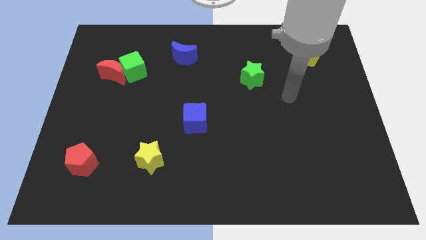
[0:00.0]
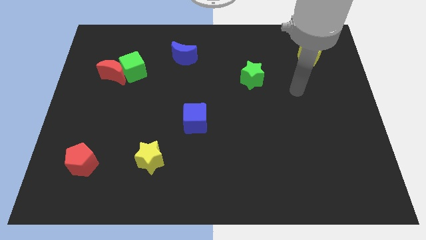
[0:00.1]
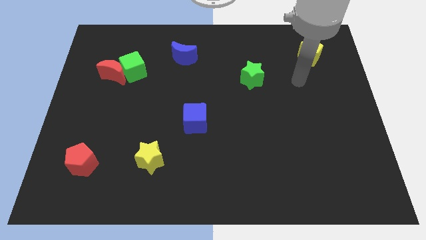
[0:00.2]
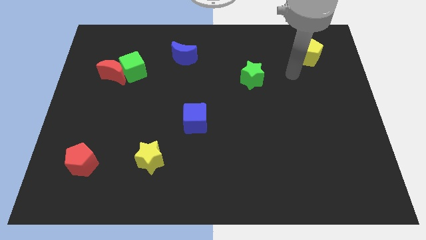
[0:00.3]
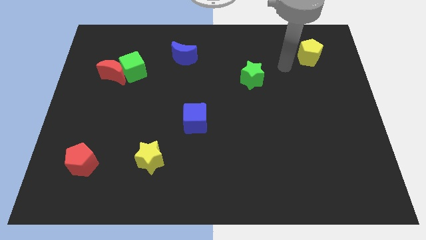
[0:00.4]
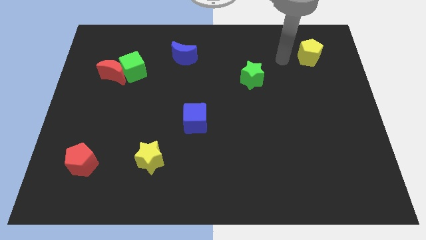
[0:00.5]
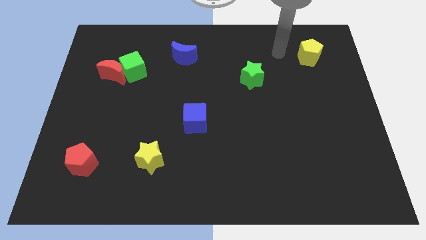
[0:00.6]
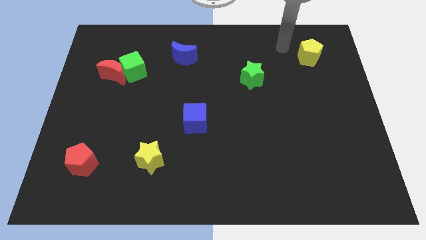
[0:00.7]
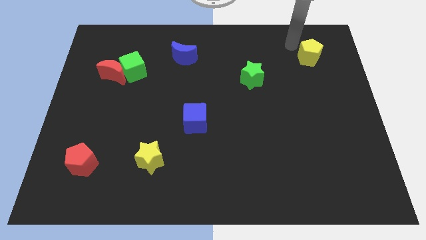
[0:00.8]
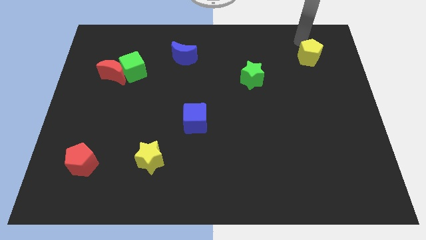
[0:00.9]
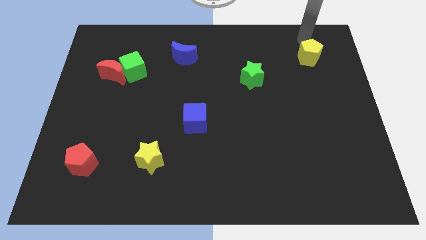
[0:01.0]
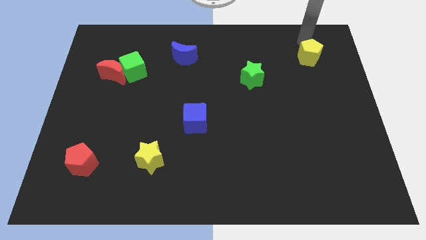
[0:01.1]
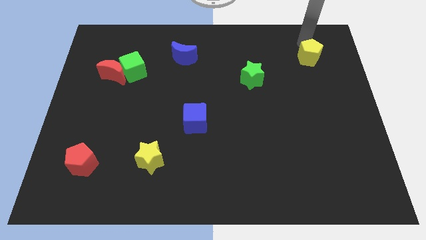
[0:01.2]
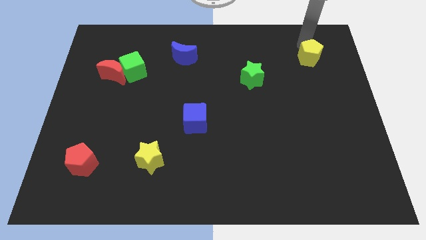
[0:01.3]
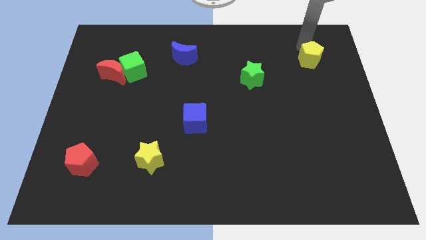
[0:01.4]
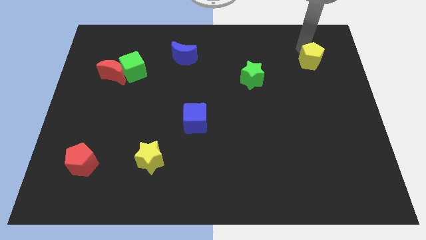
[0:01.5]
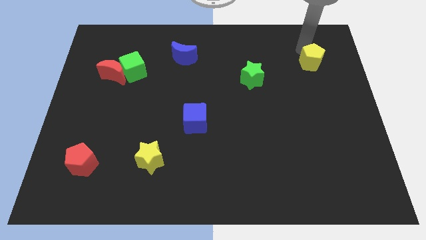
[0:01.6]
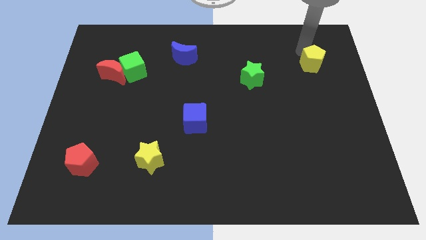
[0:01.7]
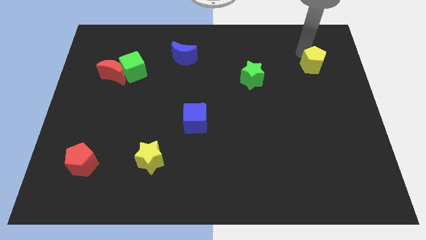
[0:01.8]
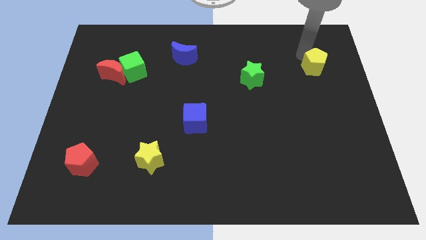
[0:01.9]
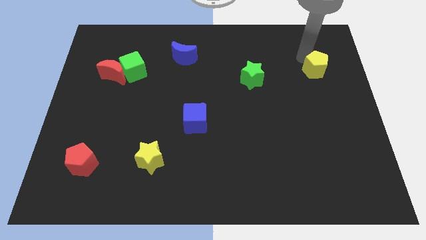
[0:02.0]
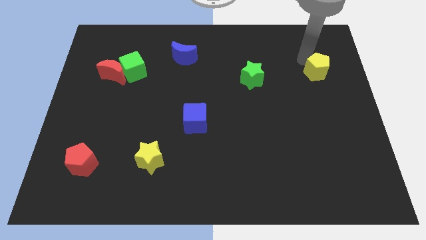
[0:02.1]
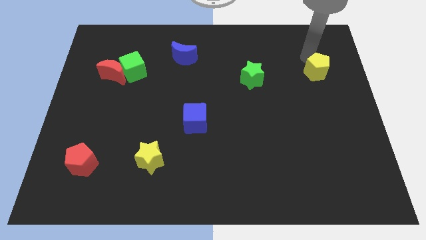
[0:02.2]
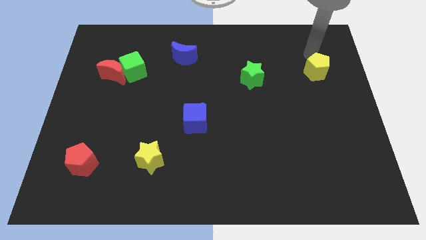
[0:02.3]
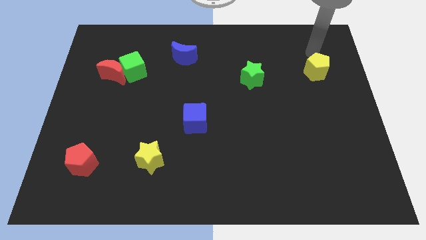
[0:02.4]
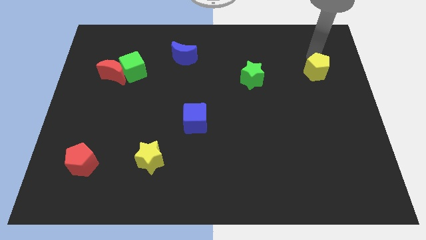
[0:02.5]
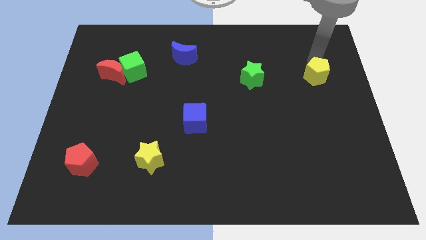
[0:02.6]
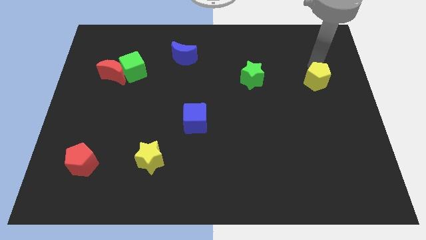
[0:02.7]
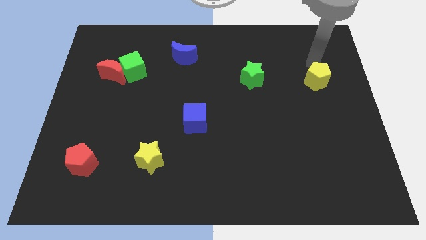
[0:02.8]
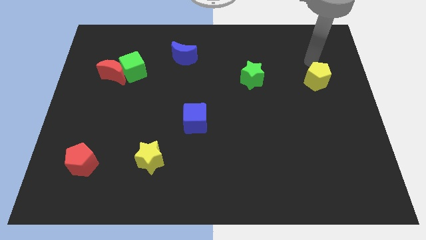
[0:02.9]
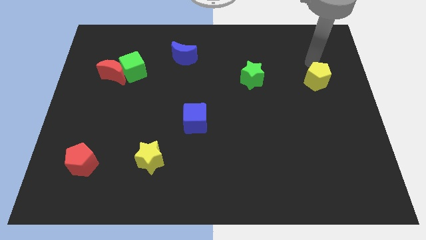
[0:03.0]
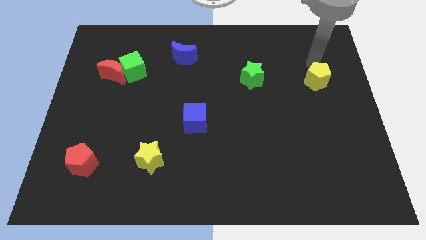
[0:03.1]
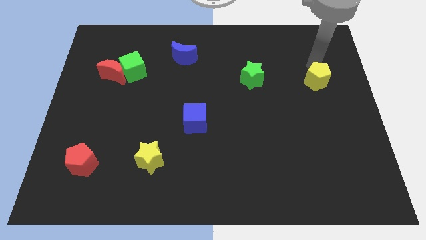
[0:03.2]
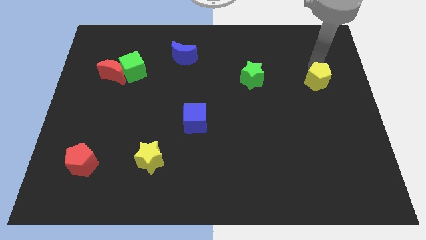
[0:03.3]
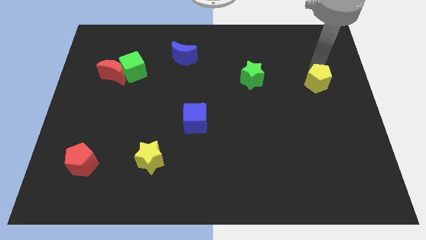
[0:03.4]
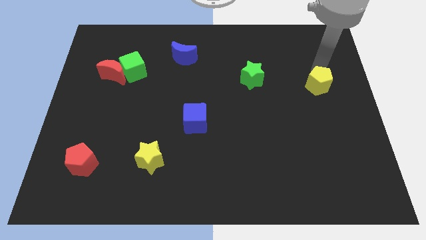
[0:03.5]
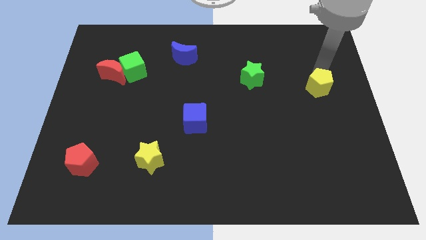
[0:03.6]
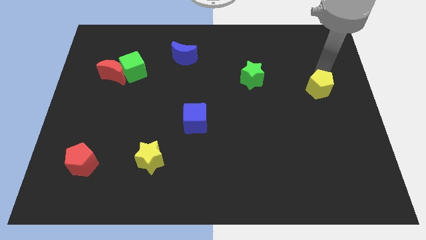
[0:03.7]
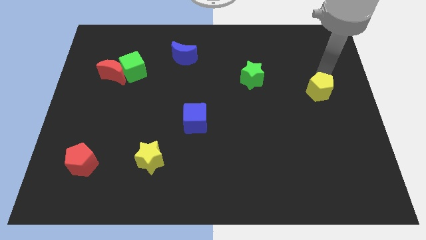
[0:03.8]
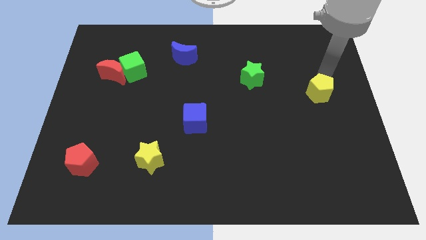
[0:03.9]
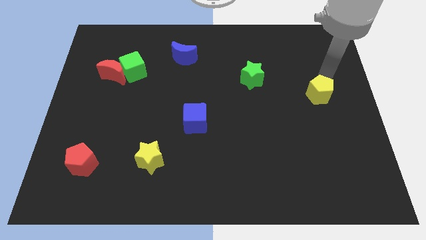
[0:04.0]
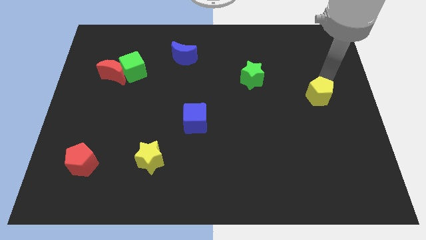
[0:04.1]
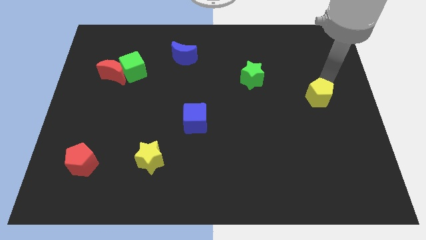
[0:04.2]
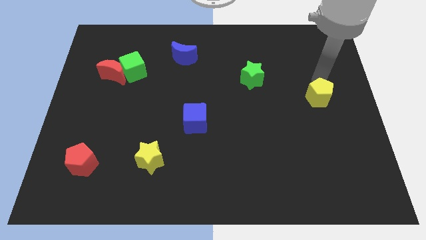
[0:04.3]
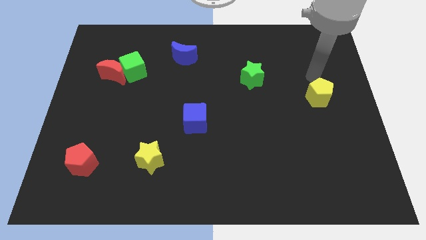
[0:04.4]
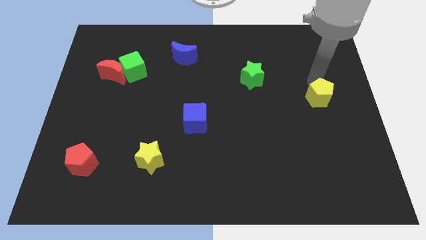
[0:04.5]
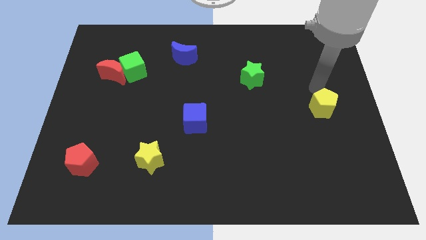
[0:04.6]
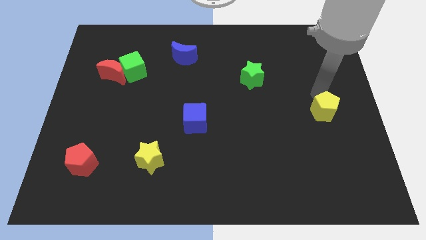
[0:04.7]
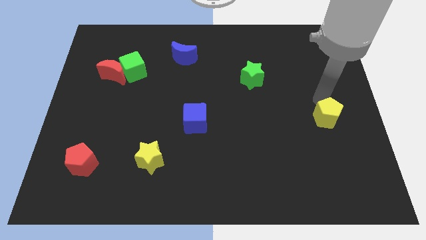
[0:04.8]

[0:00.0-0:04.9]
slide the yellow pentagon downwards

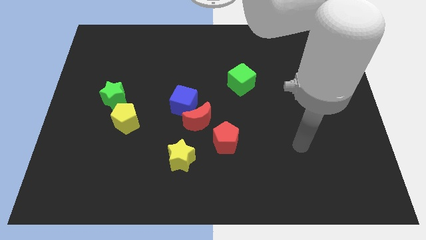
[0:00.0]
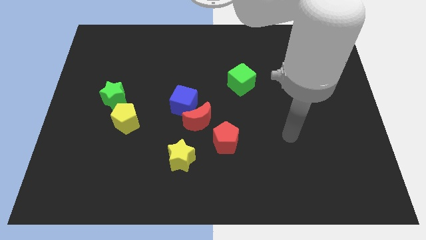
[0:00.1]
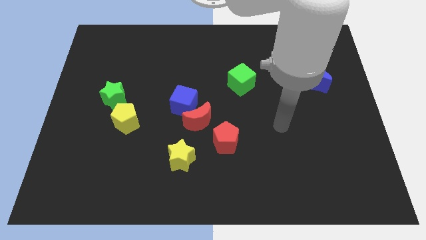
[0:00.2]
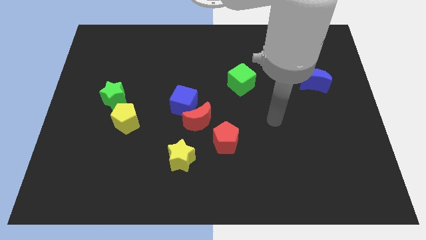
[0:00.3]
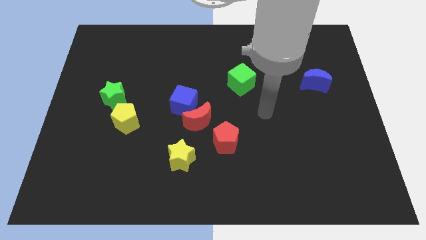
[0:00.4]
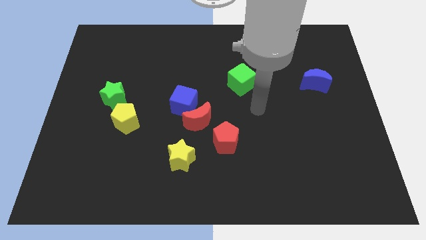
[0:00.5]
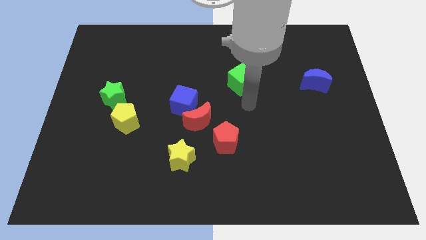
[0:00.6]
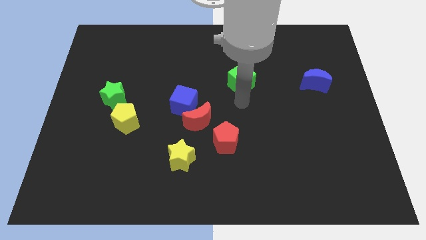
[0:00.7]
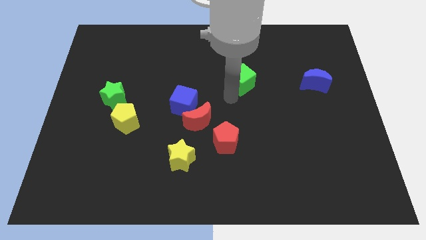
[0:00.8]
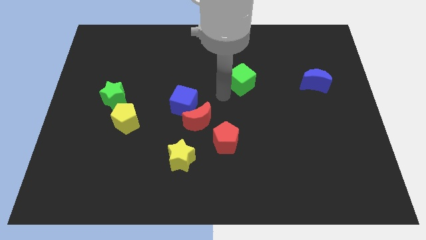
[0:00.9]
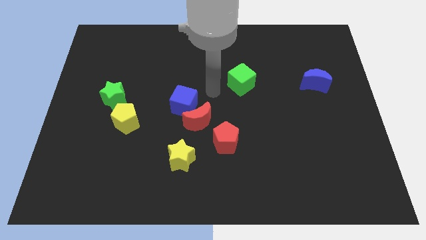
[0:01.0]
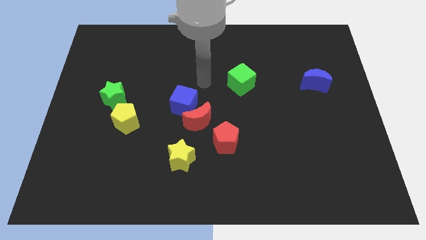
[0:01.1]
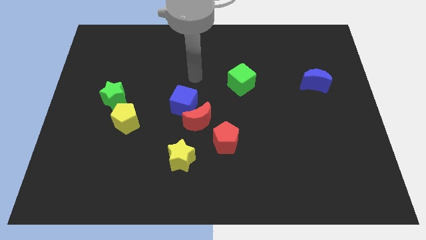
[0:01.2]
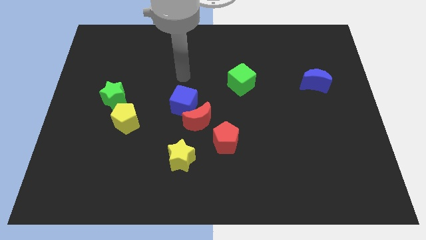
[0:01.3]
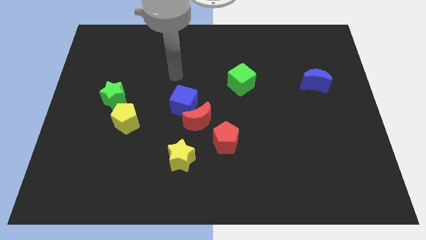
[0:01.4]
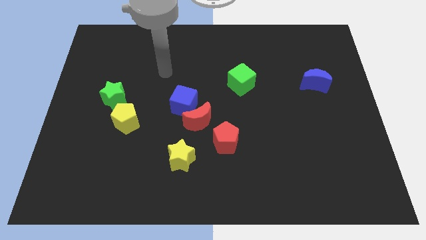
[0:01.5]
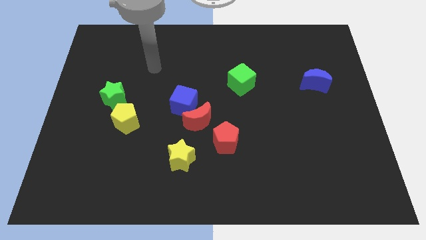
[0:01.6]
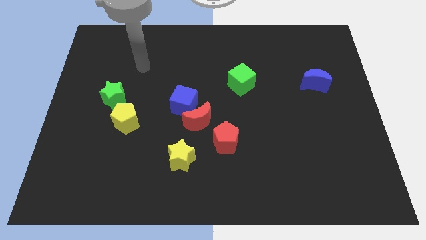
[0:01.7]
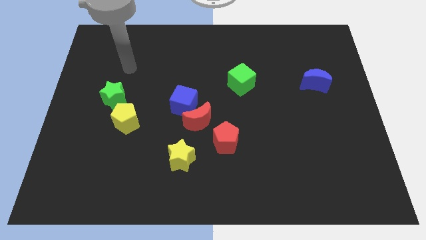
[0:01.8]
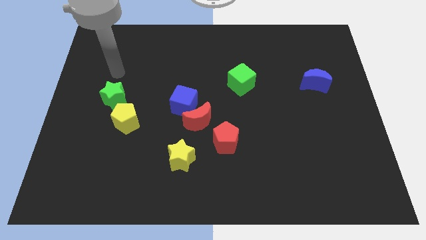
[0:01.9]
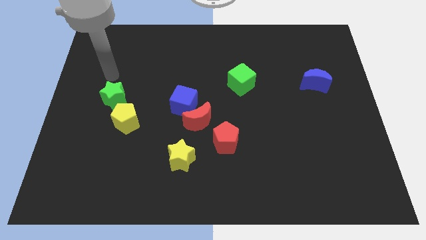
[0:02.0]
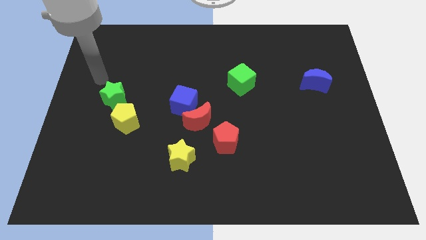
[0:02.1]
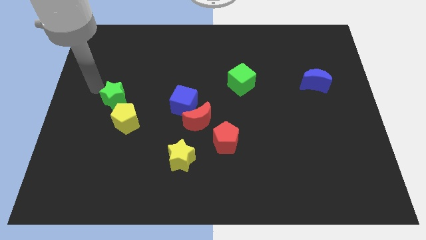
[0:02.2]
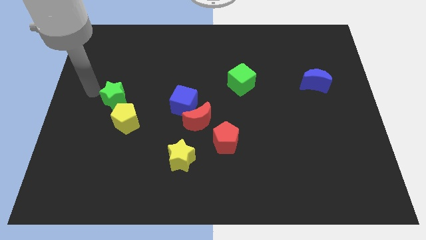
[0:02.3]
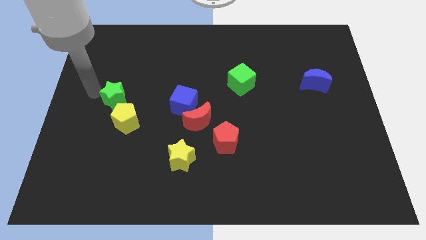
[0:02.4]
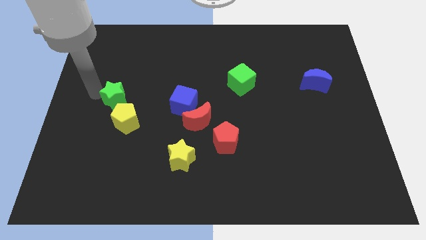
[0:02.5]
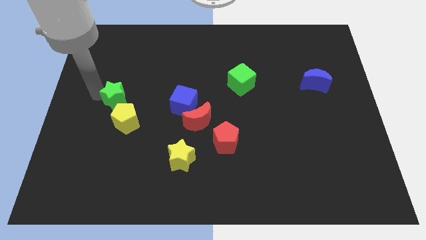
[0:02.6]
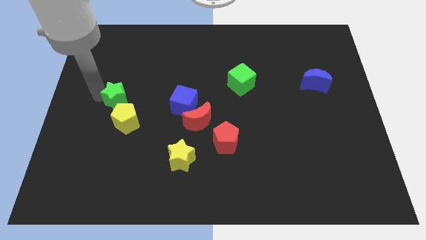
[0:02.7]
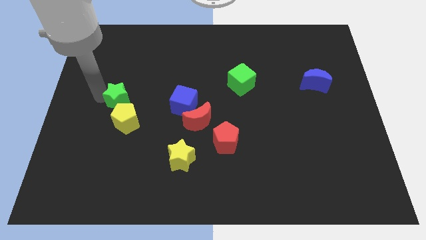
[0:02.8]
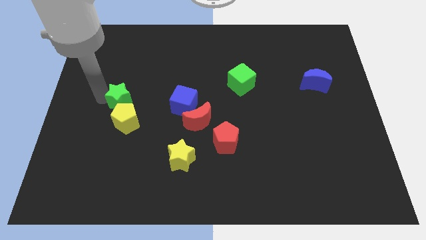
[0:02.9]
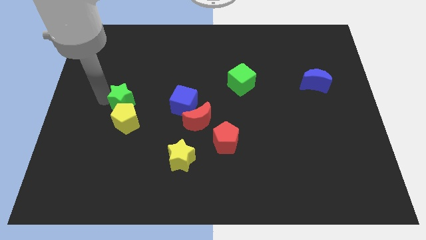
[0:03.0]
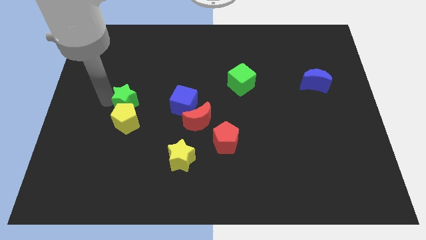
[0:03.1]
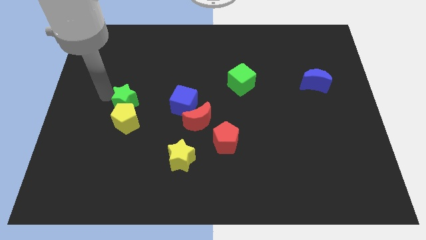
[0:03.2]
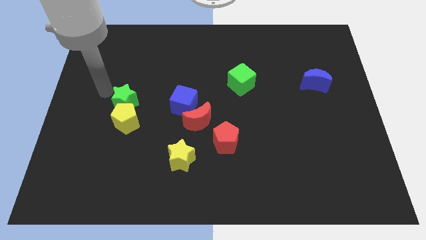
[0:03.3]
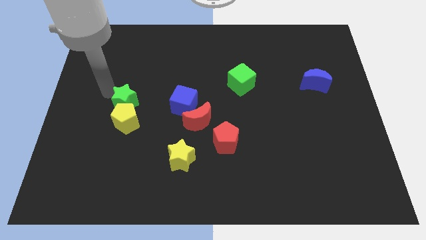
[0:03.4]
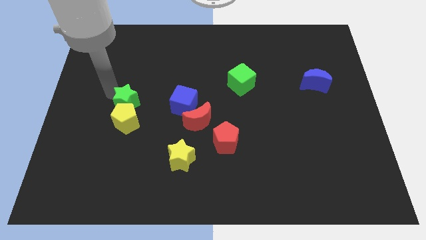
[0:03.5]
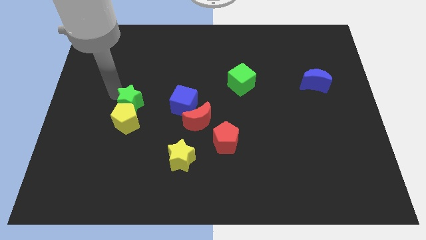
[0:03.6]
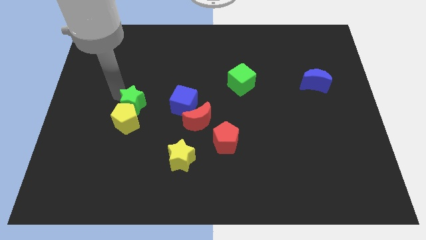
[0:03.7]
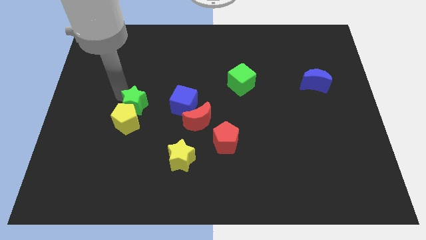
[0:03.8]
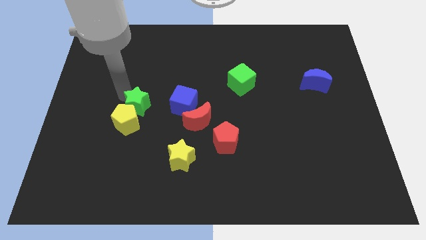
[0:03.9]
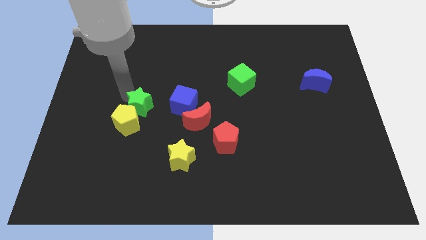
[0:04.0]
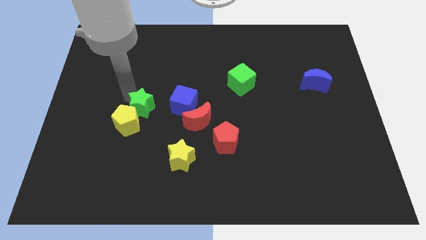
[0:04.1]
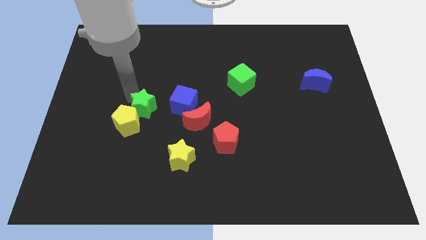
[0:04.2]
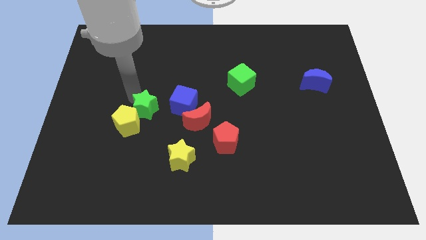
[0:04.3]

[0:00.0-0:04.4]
slightly push the green star down and then to the right
